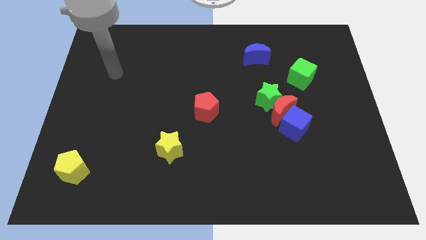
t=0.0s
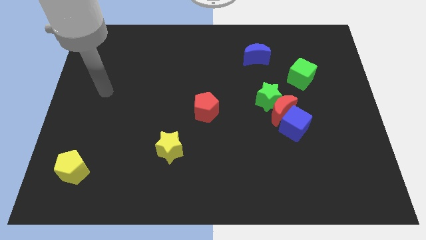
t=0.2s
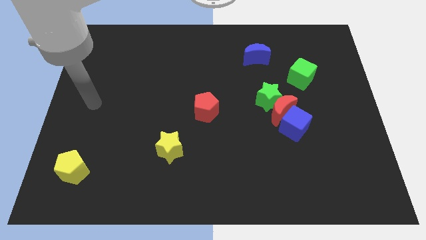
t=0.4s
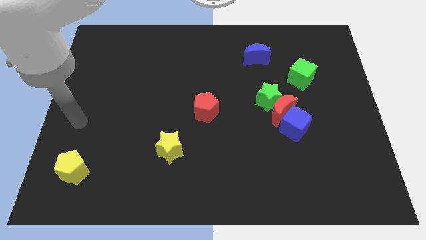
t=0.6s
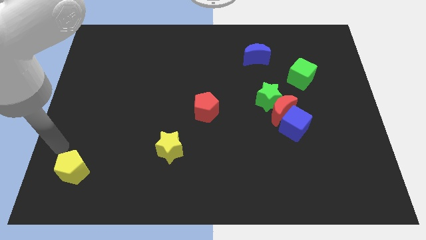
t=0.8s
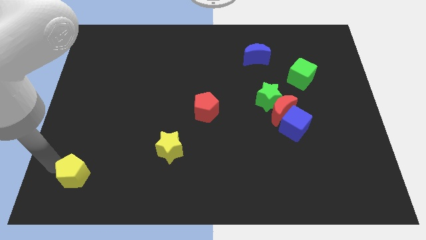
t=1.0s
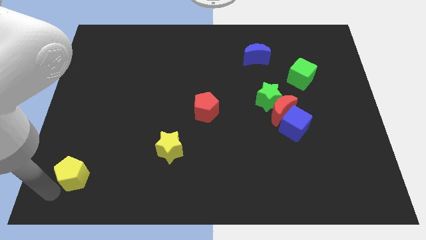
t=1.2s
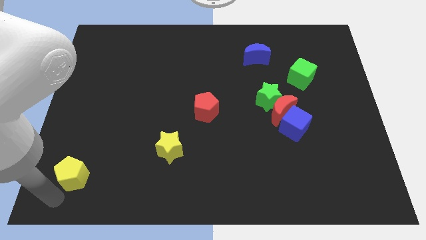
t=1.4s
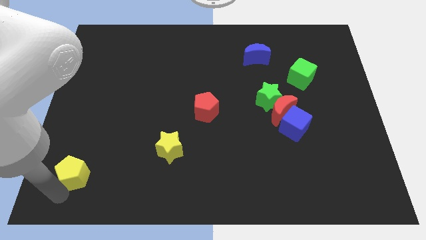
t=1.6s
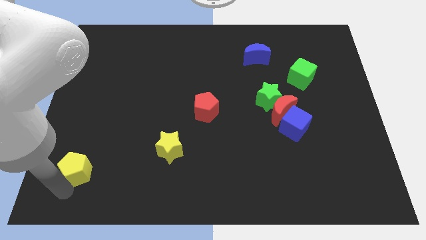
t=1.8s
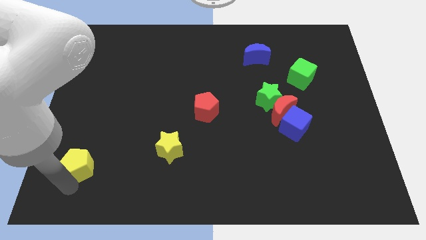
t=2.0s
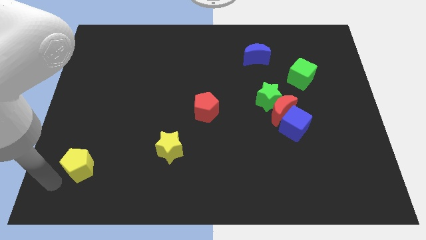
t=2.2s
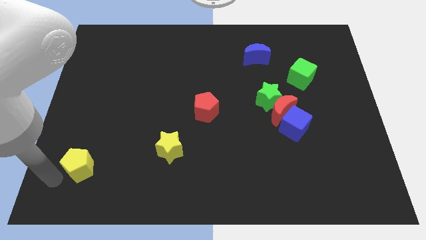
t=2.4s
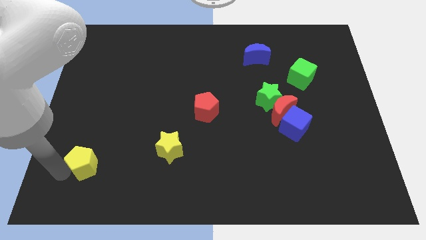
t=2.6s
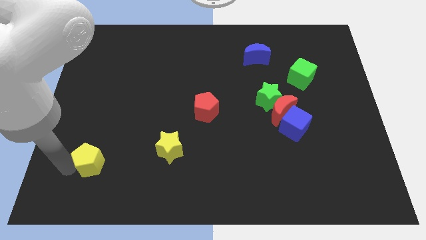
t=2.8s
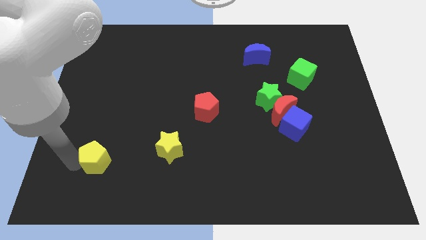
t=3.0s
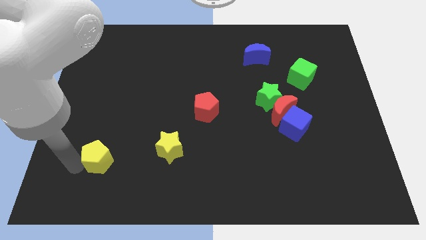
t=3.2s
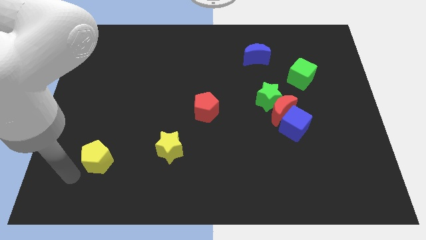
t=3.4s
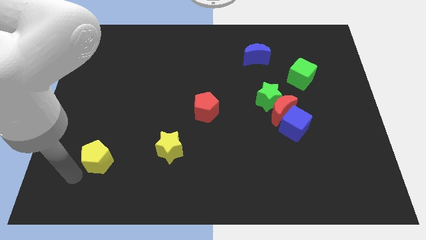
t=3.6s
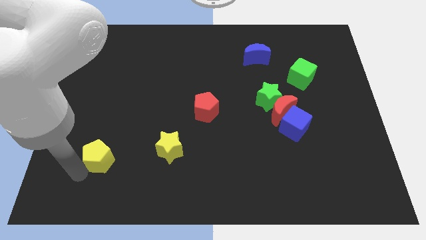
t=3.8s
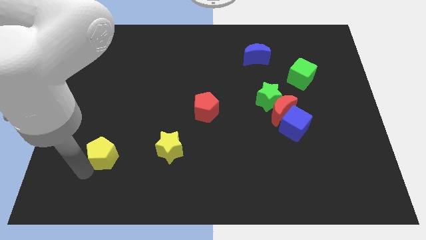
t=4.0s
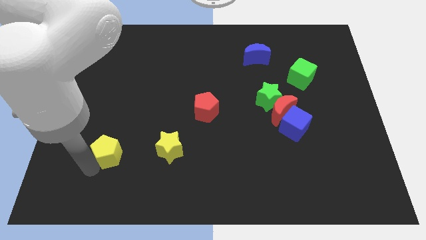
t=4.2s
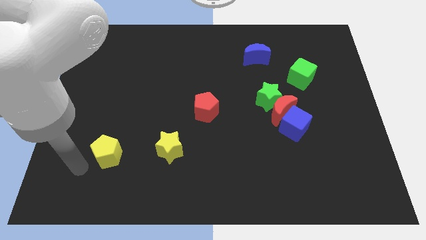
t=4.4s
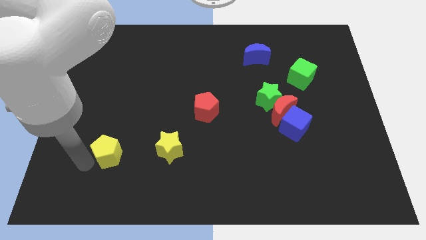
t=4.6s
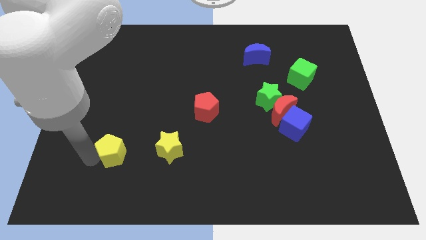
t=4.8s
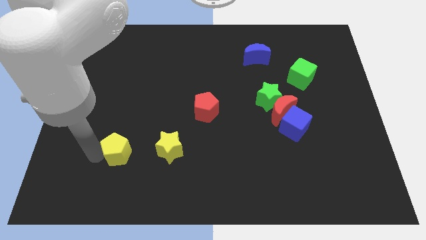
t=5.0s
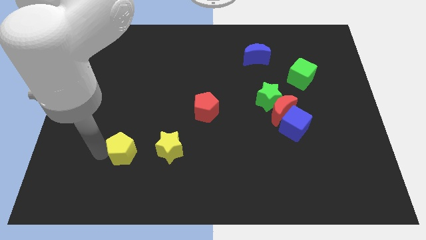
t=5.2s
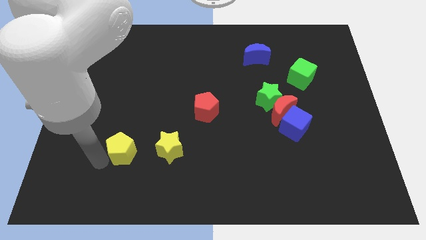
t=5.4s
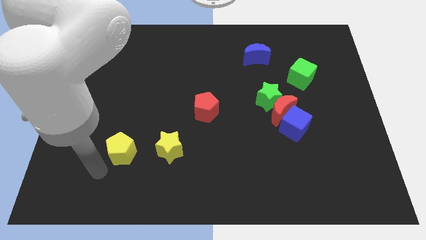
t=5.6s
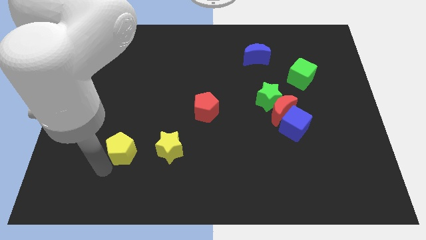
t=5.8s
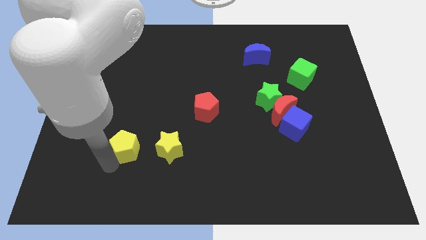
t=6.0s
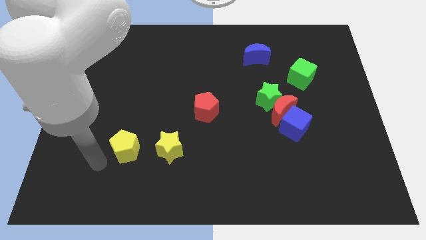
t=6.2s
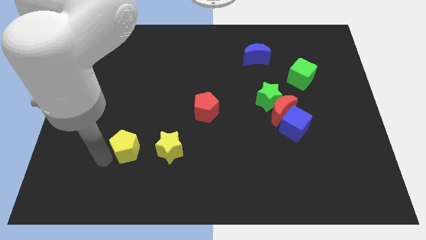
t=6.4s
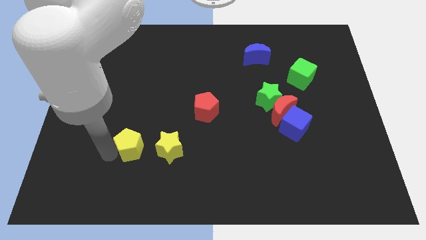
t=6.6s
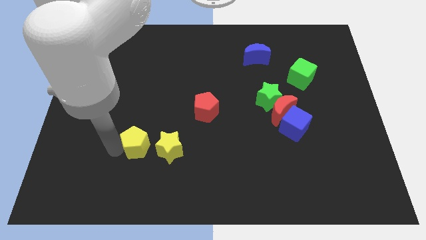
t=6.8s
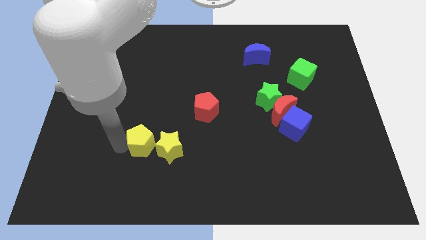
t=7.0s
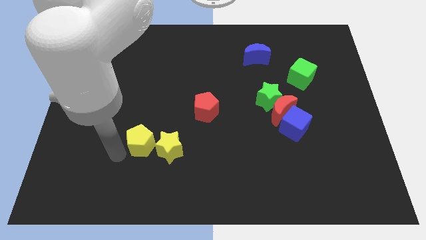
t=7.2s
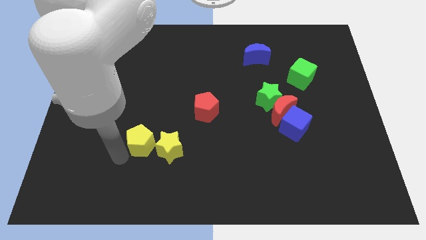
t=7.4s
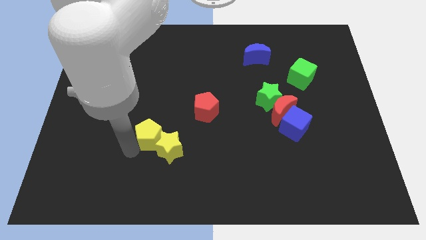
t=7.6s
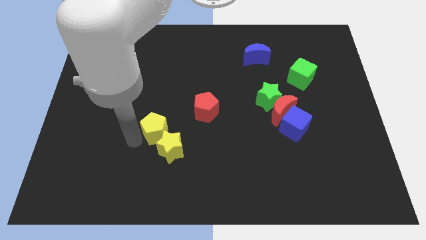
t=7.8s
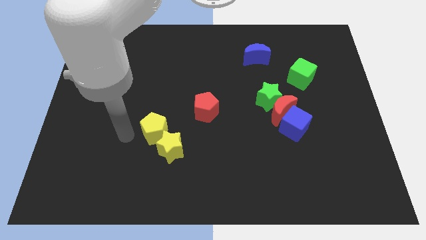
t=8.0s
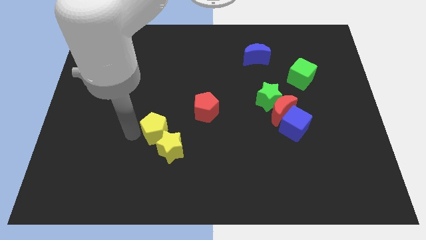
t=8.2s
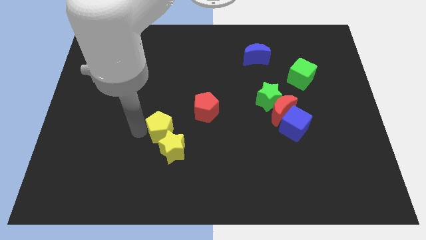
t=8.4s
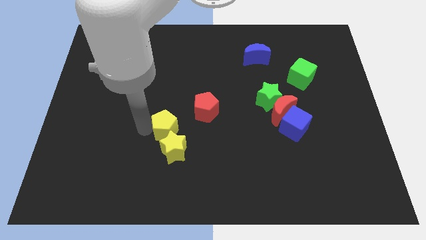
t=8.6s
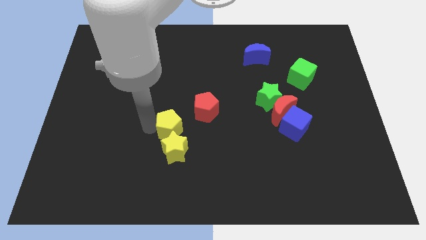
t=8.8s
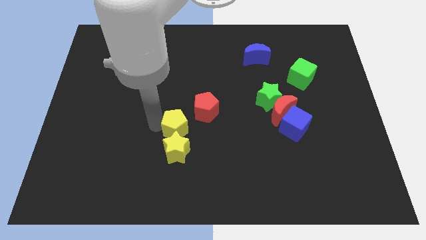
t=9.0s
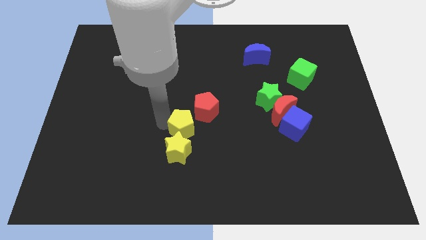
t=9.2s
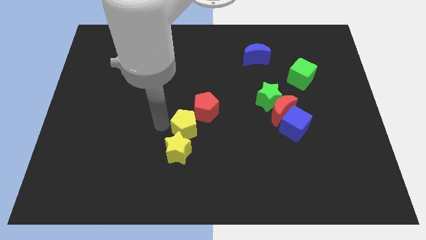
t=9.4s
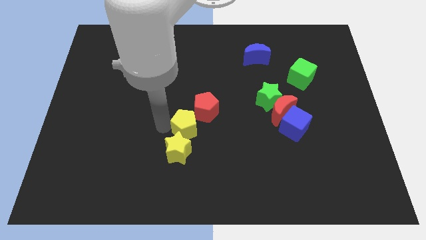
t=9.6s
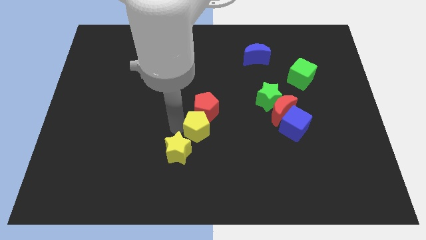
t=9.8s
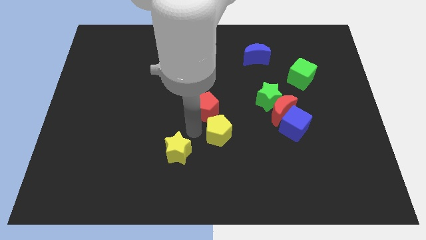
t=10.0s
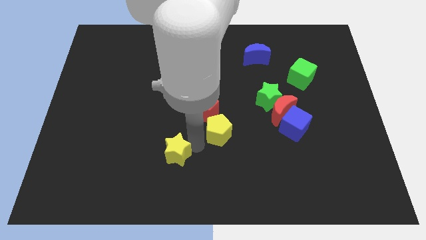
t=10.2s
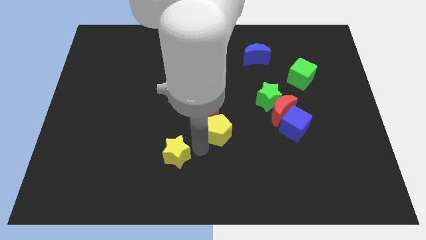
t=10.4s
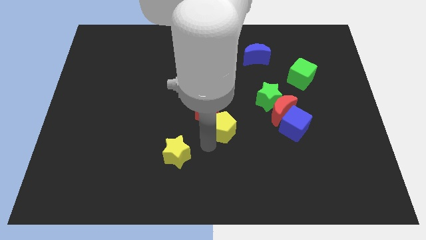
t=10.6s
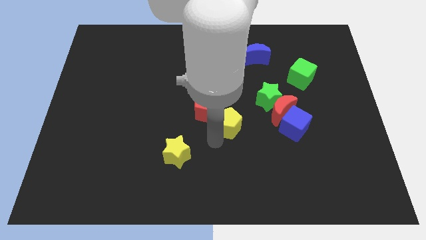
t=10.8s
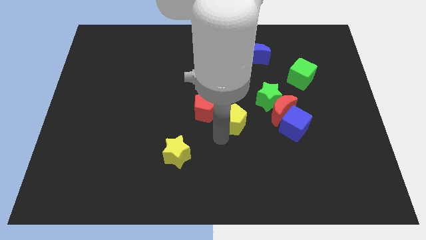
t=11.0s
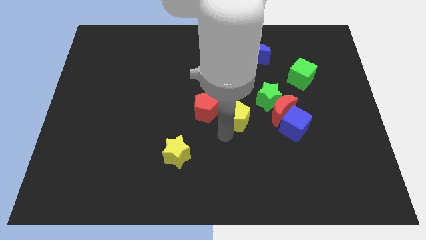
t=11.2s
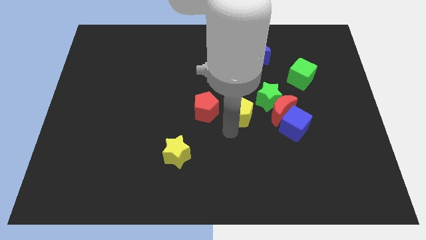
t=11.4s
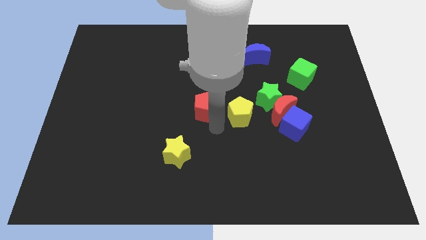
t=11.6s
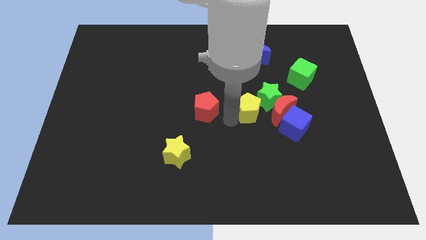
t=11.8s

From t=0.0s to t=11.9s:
push the yellow pentagon next to the green star

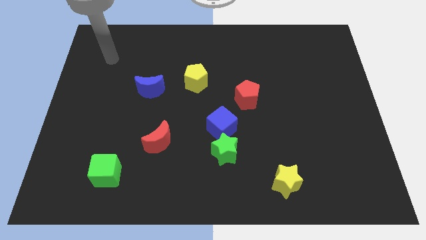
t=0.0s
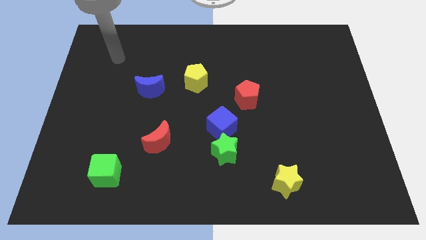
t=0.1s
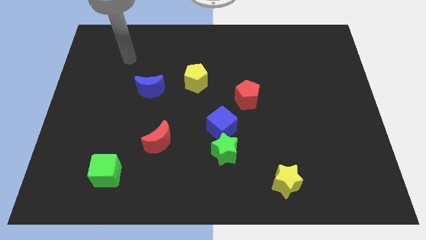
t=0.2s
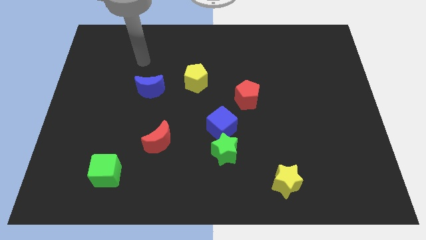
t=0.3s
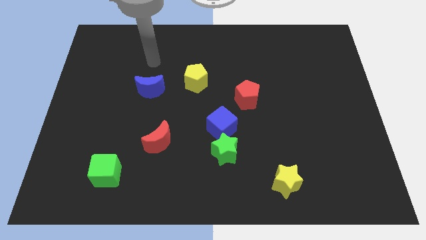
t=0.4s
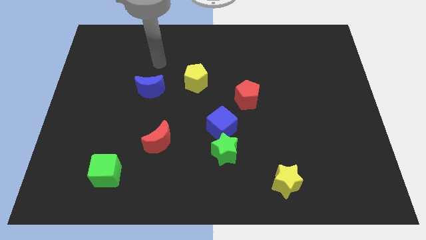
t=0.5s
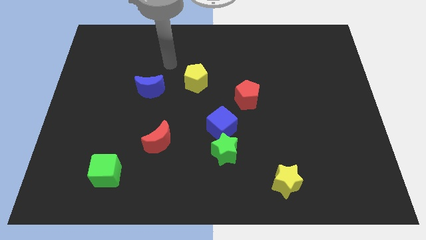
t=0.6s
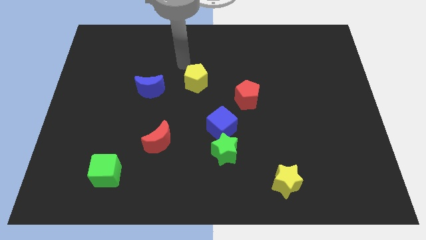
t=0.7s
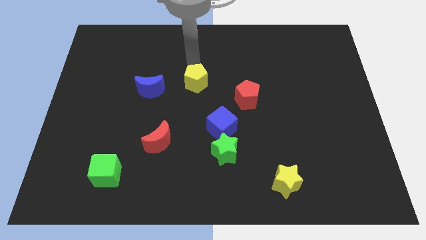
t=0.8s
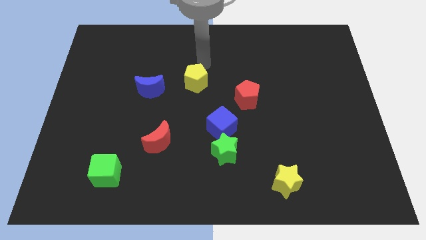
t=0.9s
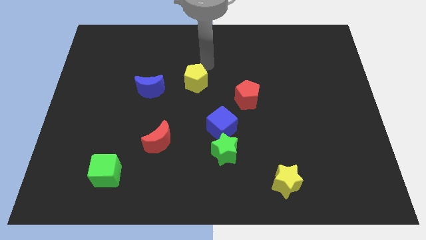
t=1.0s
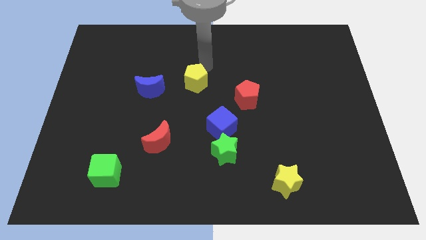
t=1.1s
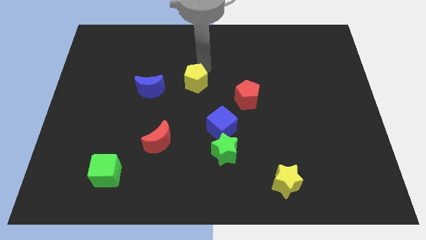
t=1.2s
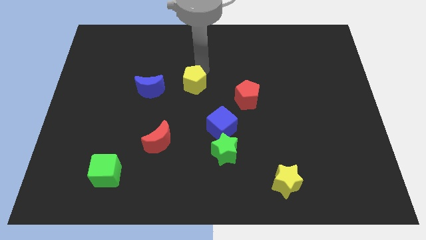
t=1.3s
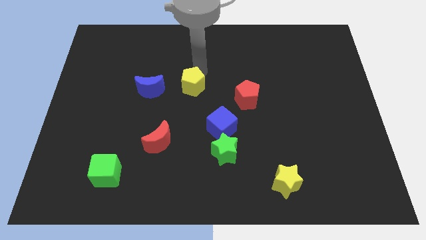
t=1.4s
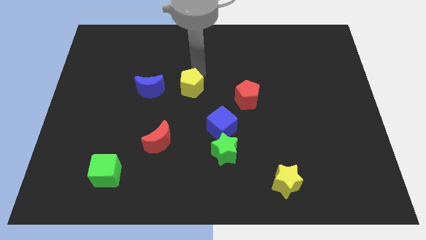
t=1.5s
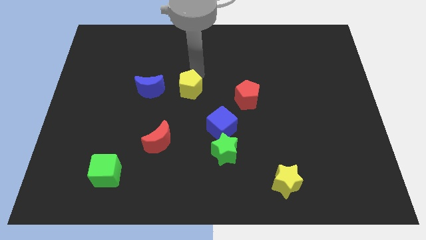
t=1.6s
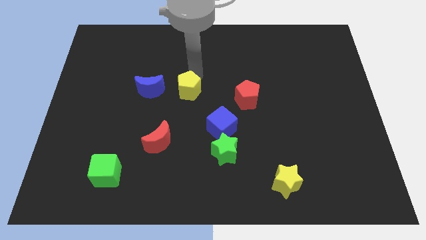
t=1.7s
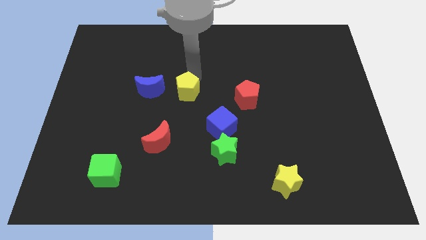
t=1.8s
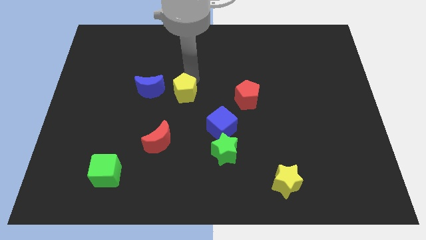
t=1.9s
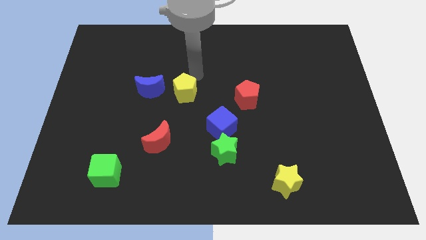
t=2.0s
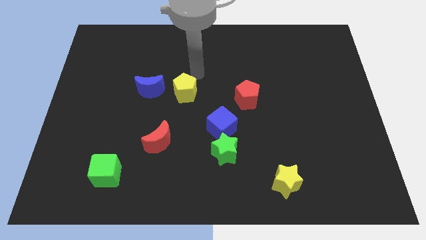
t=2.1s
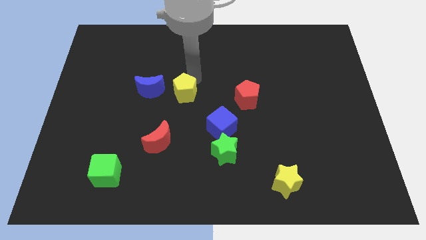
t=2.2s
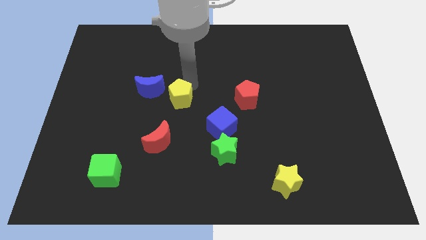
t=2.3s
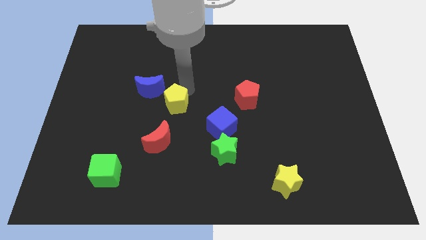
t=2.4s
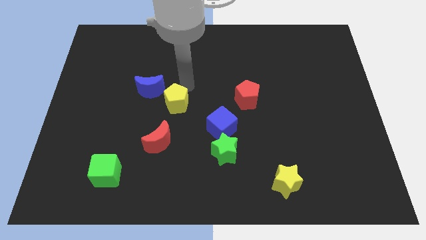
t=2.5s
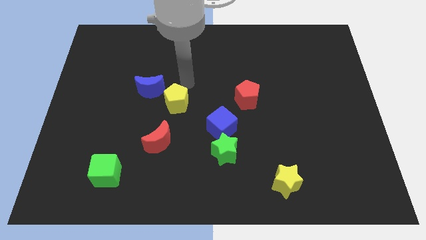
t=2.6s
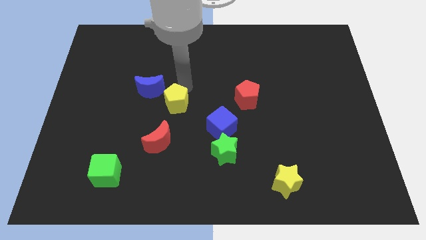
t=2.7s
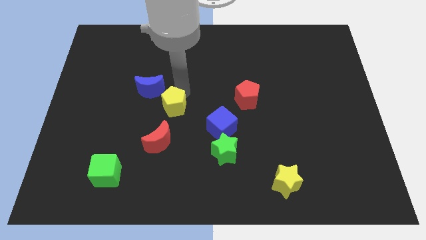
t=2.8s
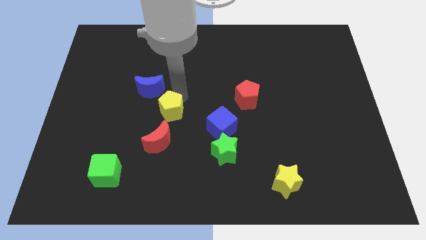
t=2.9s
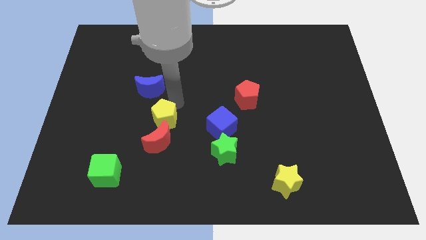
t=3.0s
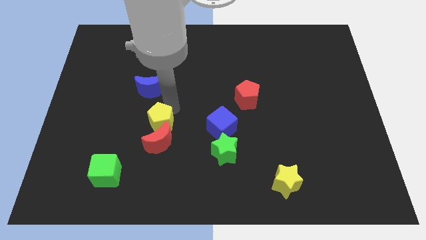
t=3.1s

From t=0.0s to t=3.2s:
slide the yellow pentagon close to the red moon
